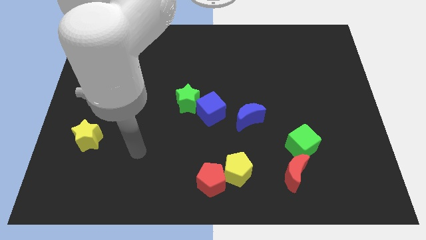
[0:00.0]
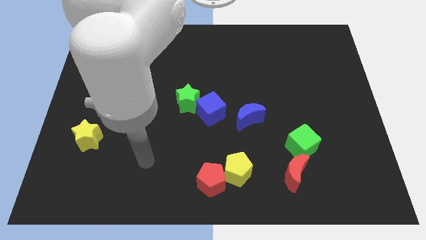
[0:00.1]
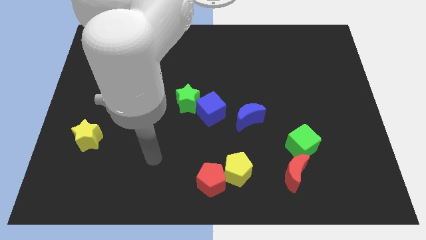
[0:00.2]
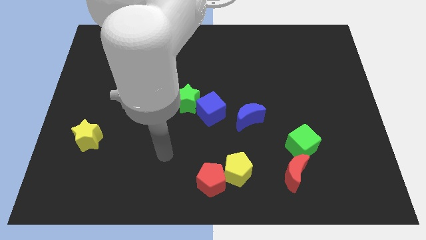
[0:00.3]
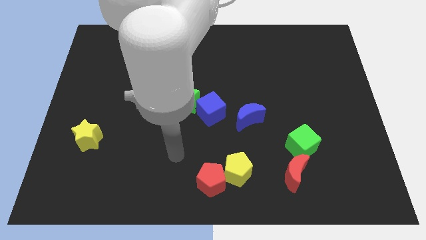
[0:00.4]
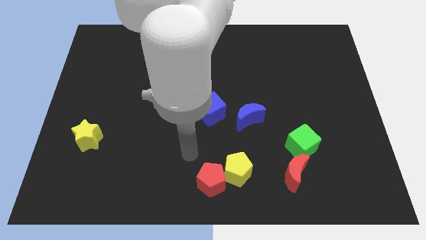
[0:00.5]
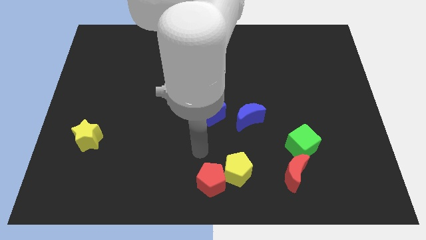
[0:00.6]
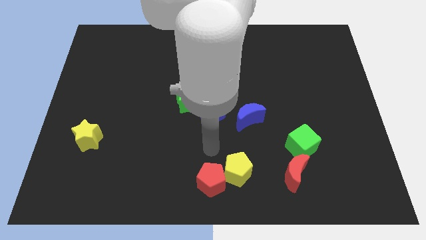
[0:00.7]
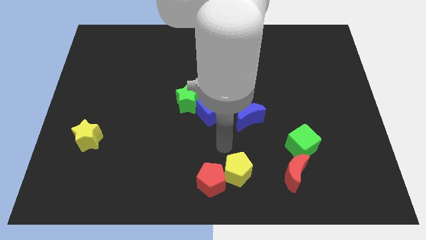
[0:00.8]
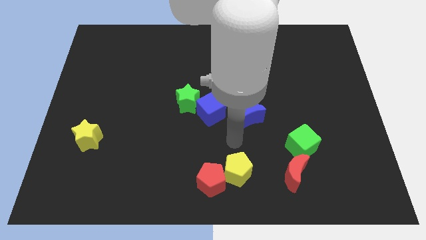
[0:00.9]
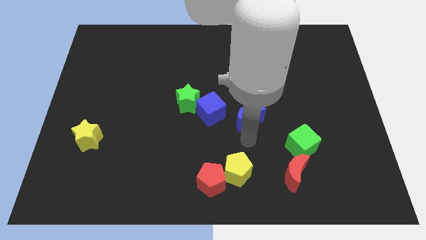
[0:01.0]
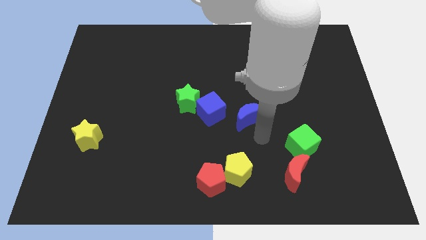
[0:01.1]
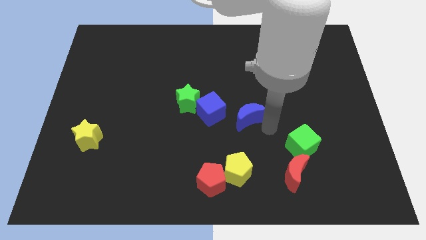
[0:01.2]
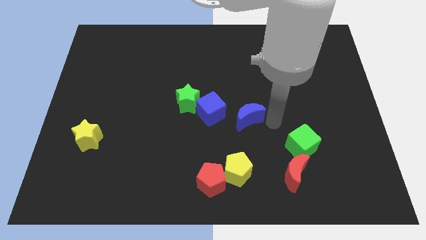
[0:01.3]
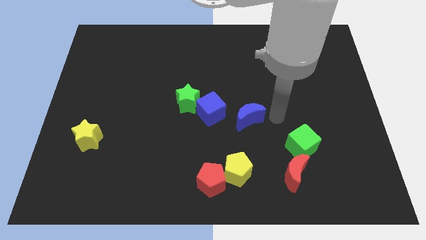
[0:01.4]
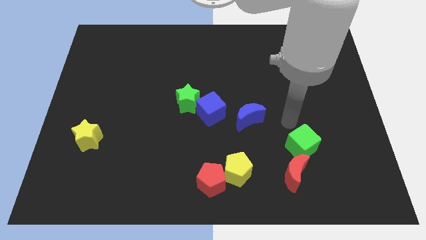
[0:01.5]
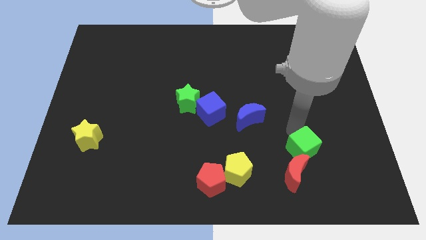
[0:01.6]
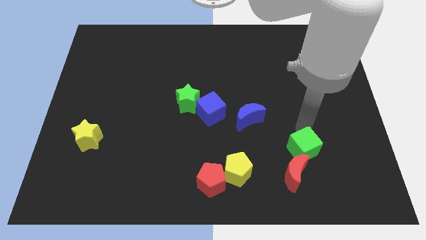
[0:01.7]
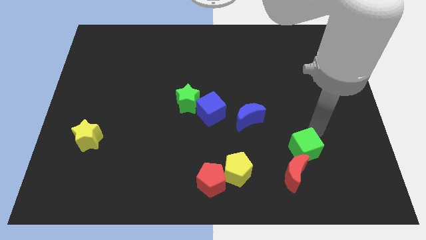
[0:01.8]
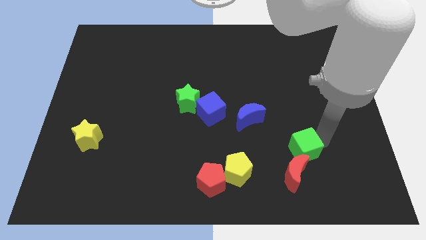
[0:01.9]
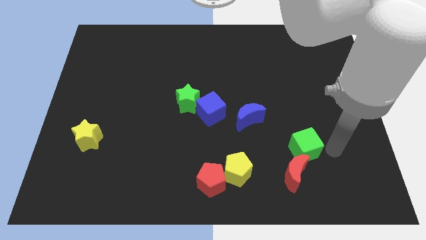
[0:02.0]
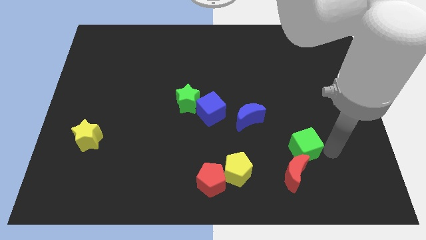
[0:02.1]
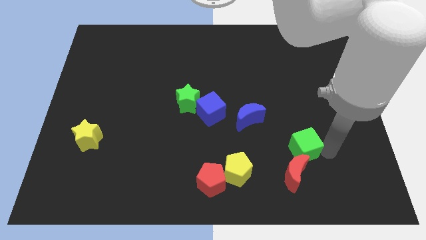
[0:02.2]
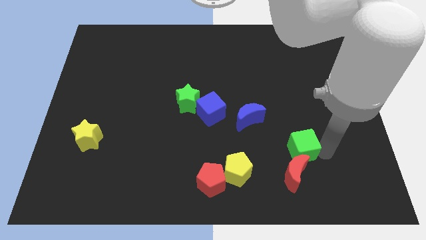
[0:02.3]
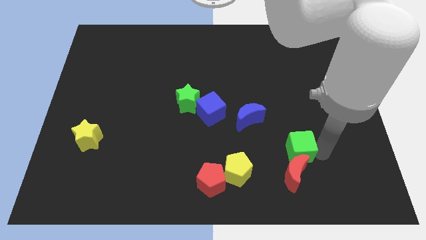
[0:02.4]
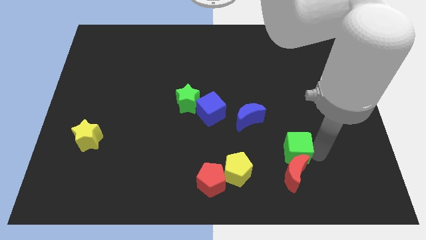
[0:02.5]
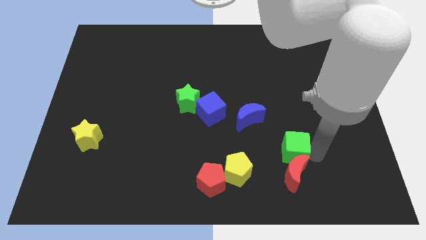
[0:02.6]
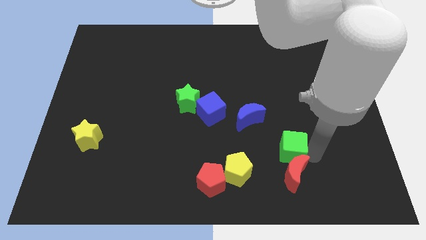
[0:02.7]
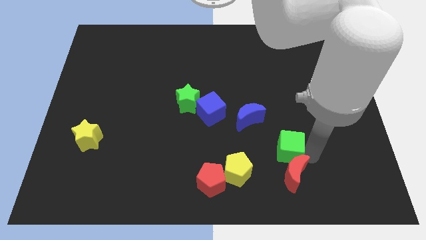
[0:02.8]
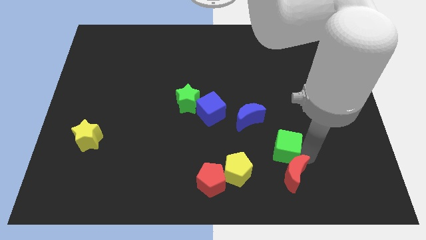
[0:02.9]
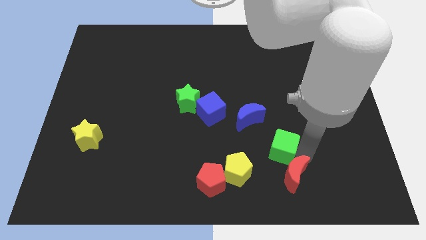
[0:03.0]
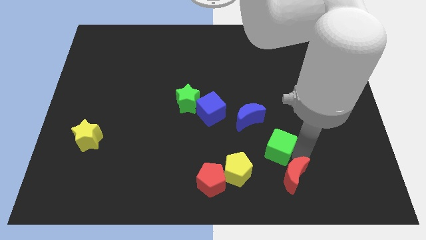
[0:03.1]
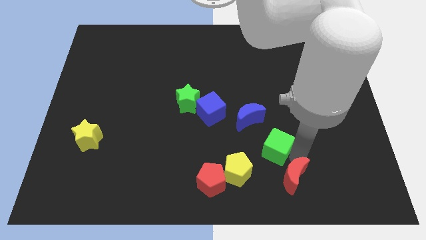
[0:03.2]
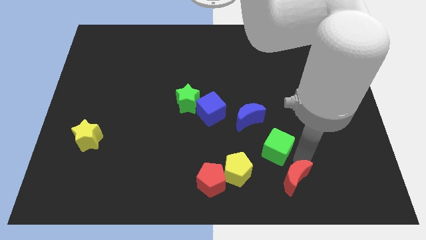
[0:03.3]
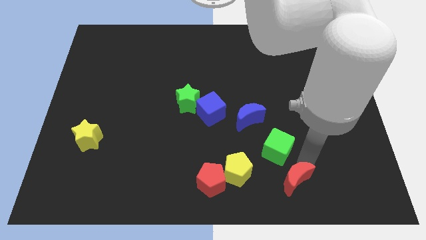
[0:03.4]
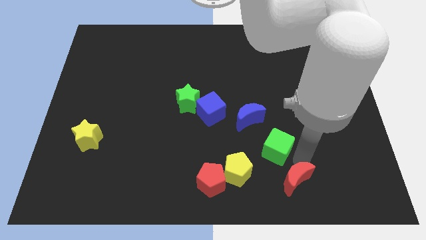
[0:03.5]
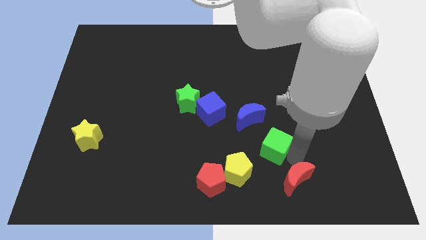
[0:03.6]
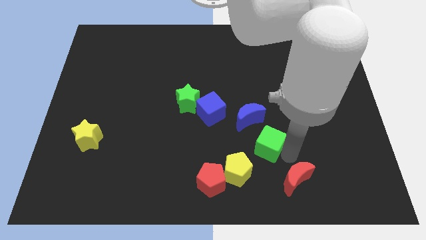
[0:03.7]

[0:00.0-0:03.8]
slightly push the green cube left

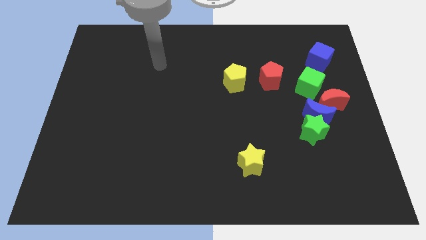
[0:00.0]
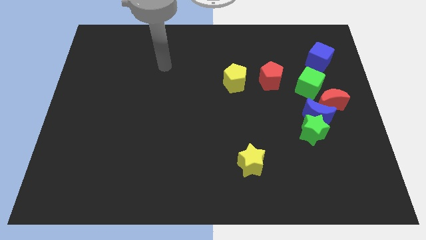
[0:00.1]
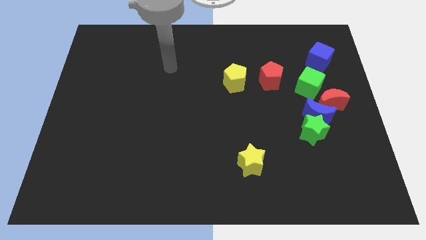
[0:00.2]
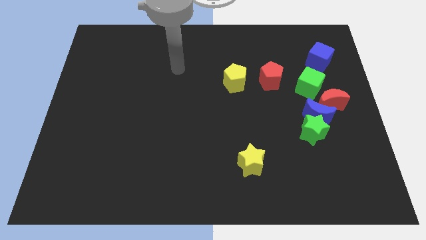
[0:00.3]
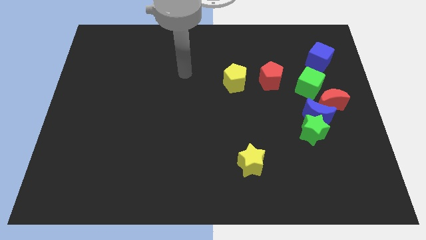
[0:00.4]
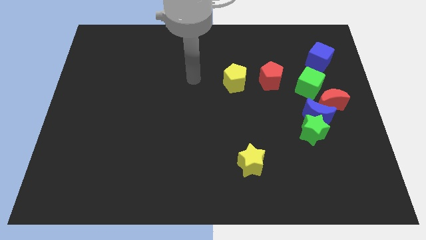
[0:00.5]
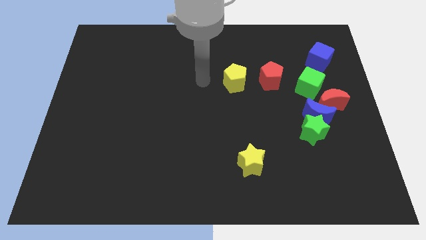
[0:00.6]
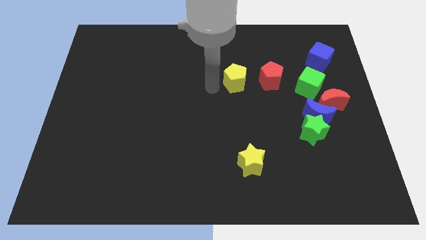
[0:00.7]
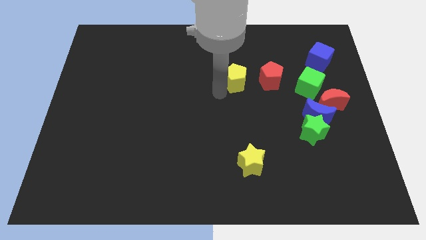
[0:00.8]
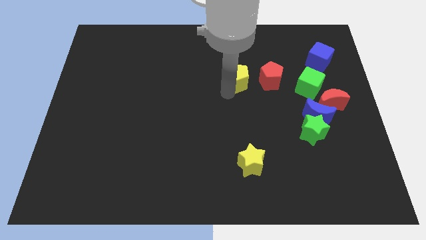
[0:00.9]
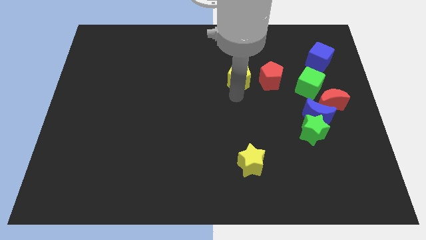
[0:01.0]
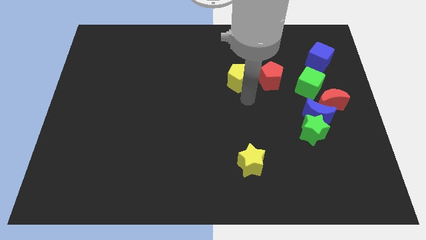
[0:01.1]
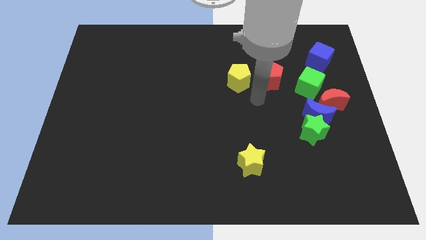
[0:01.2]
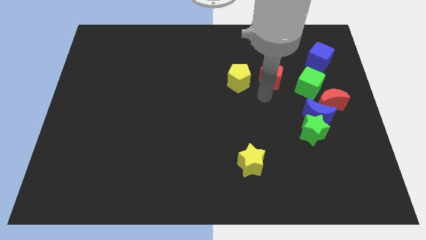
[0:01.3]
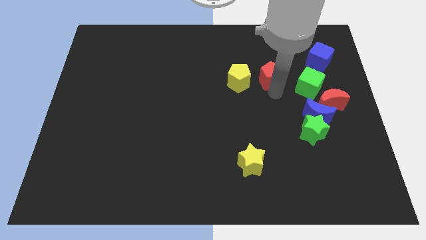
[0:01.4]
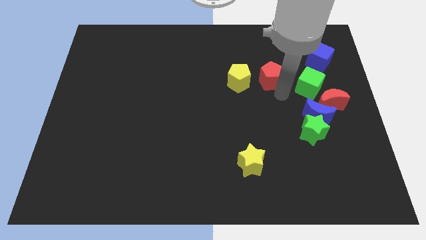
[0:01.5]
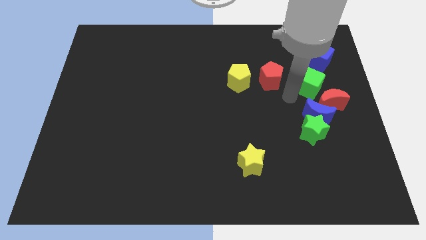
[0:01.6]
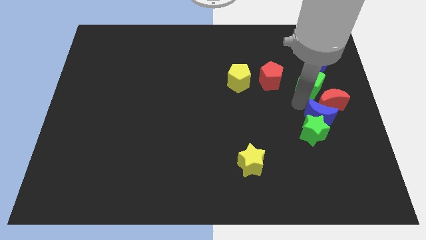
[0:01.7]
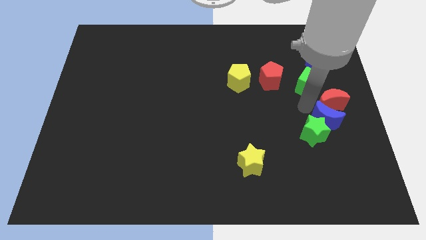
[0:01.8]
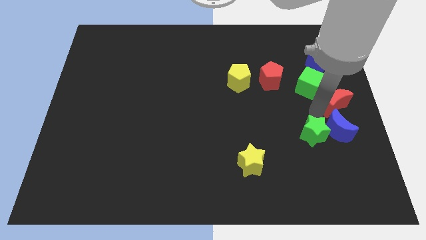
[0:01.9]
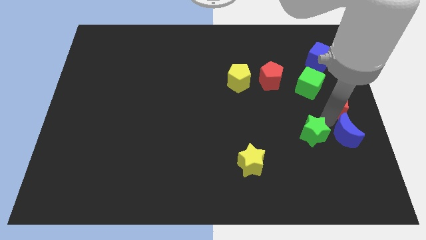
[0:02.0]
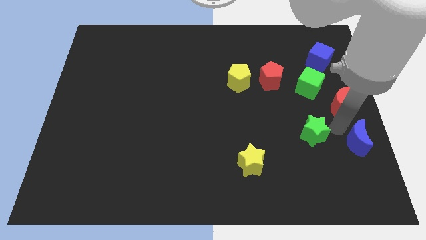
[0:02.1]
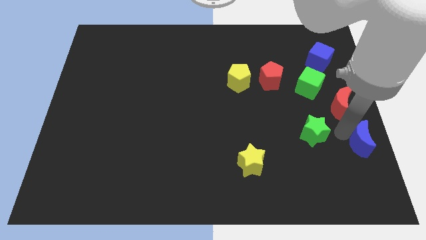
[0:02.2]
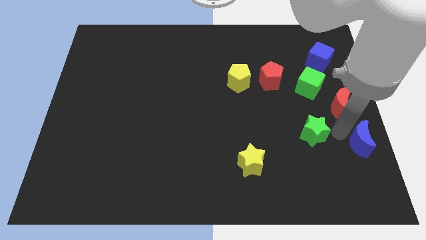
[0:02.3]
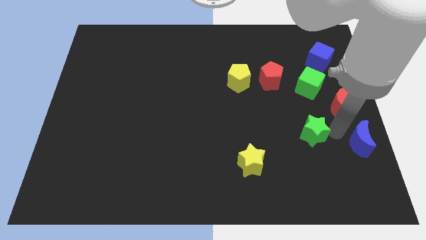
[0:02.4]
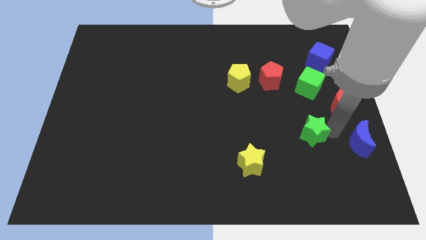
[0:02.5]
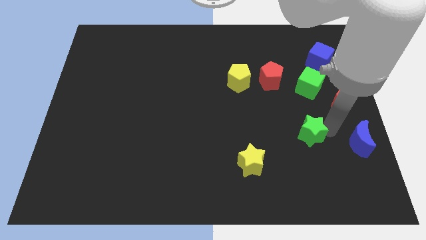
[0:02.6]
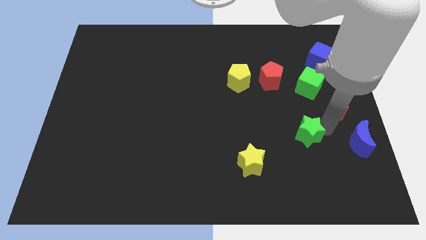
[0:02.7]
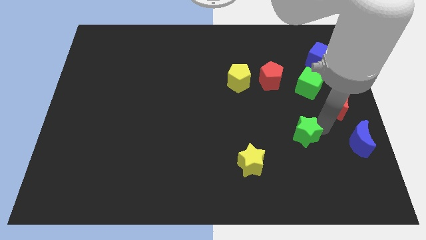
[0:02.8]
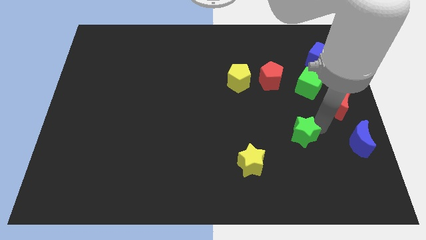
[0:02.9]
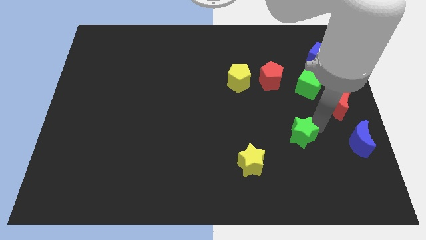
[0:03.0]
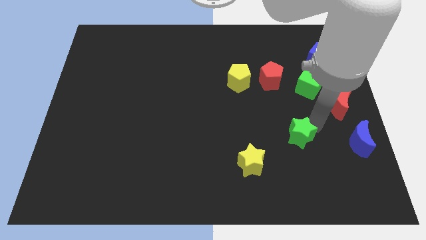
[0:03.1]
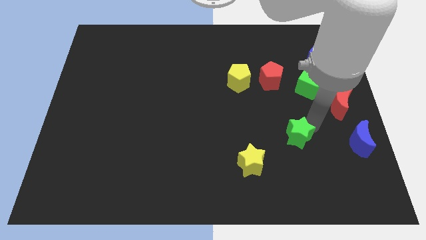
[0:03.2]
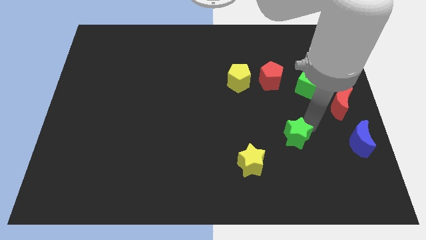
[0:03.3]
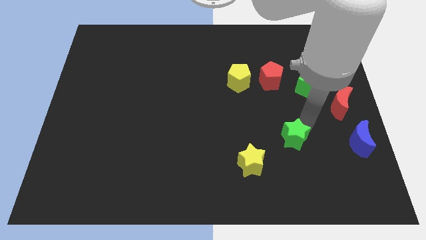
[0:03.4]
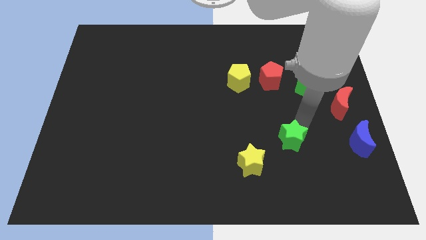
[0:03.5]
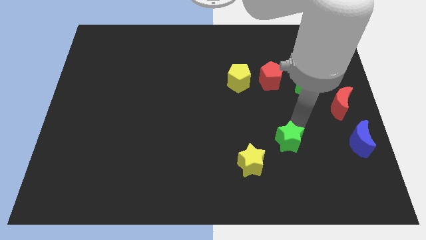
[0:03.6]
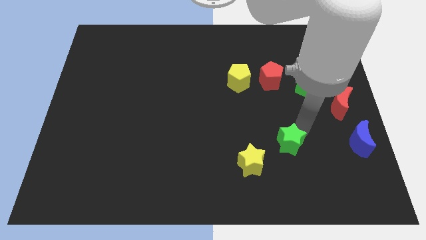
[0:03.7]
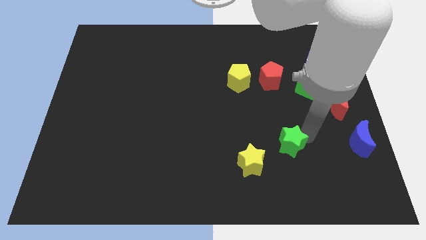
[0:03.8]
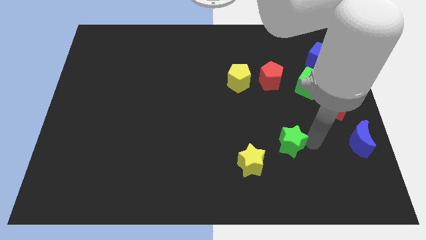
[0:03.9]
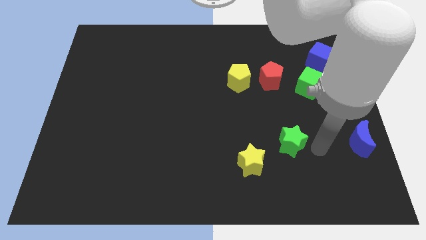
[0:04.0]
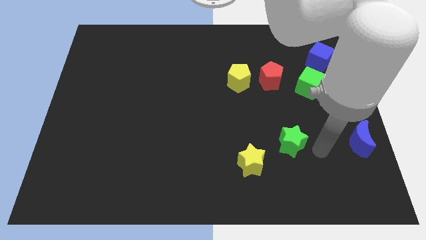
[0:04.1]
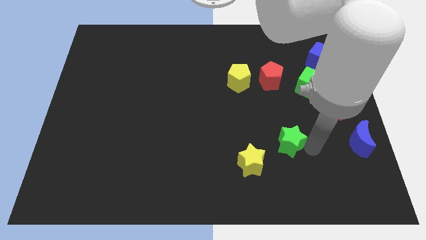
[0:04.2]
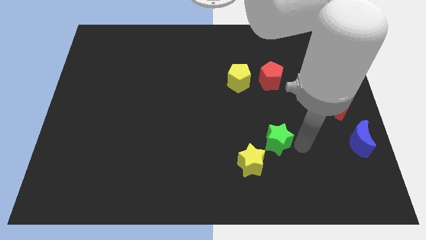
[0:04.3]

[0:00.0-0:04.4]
move the green star a bit to the left

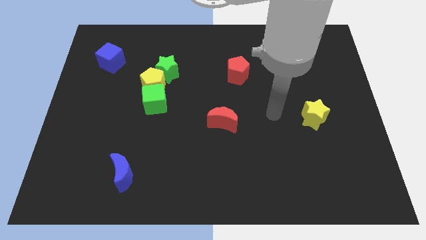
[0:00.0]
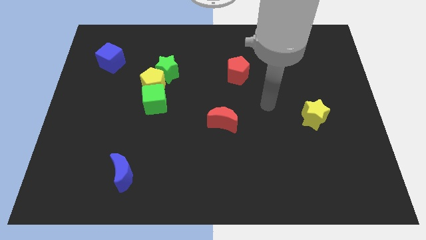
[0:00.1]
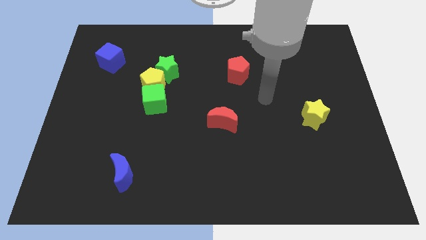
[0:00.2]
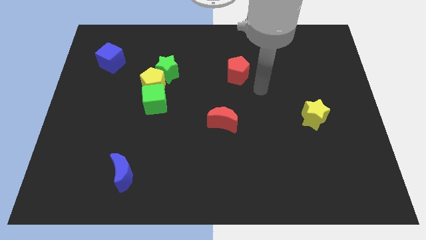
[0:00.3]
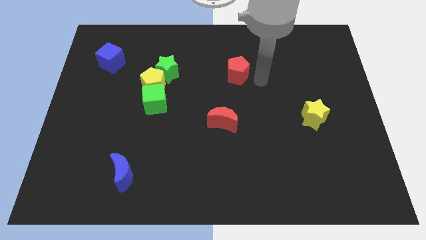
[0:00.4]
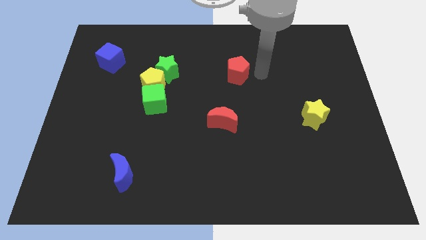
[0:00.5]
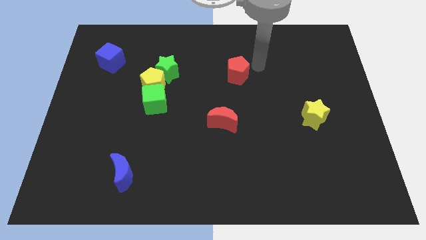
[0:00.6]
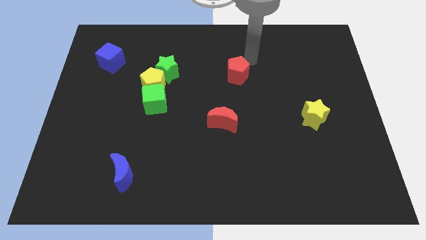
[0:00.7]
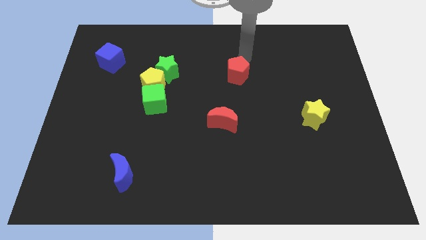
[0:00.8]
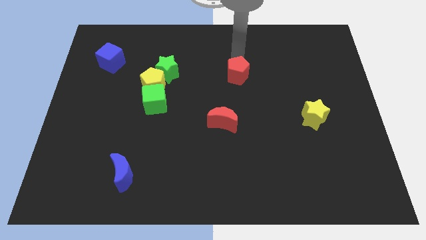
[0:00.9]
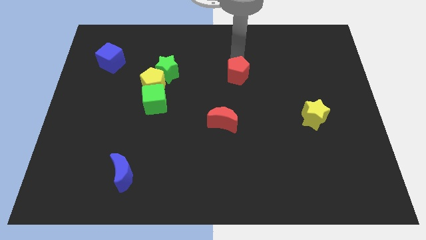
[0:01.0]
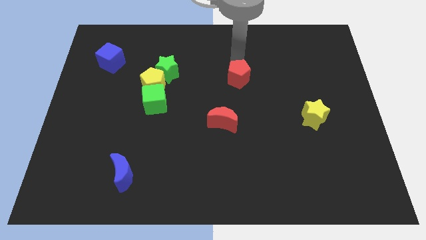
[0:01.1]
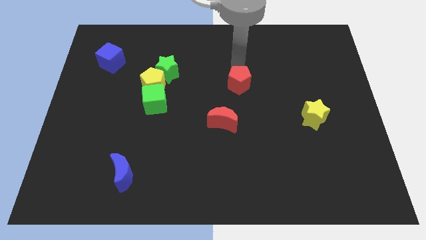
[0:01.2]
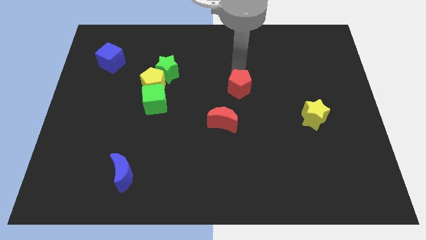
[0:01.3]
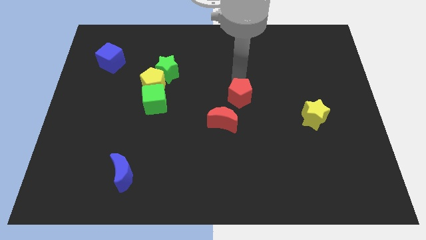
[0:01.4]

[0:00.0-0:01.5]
slide the red pentagon downwards a little
